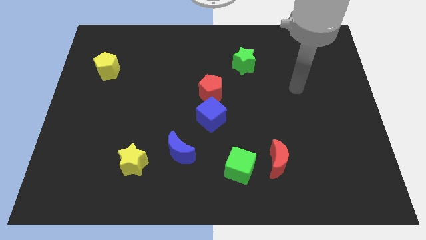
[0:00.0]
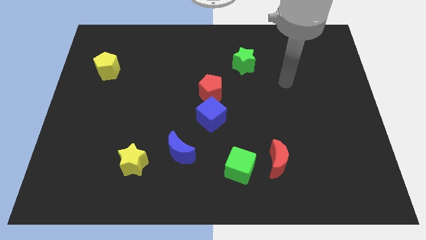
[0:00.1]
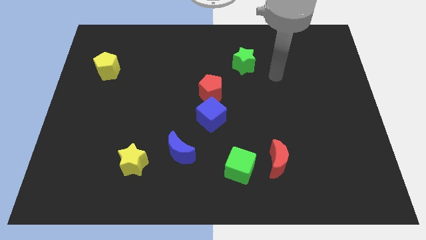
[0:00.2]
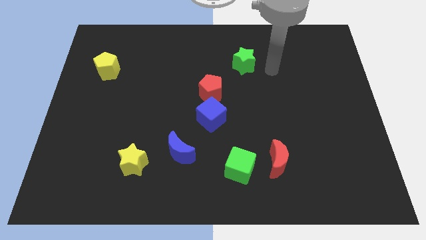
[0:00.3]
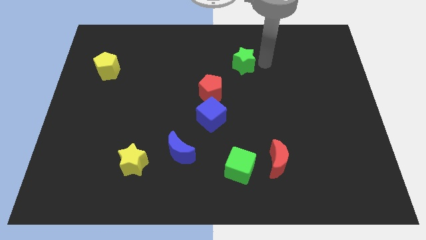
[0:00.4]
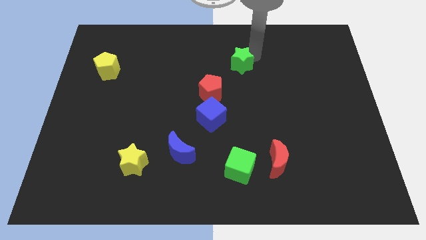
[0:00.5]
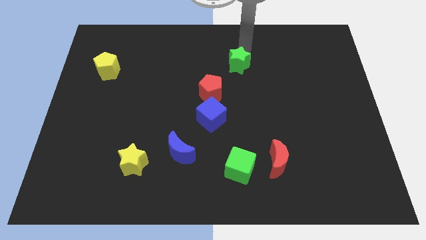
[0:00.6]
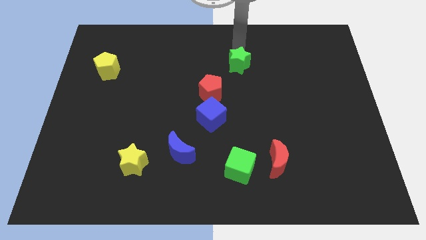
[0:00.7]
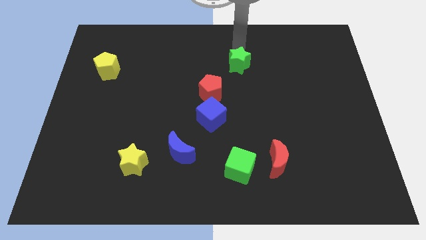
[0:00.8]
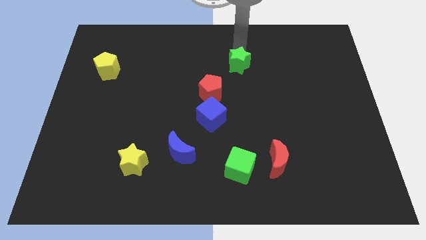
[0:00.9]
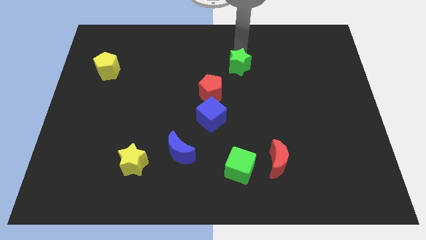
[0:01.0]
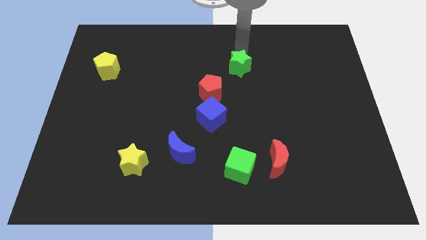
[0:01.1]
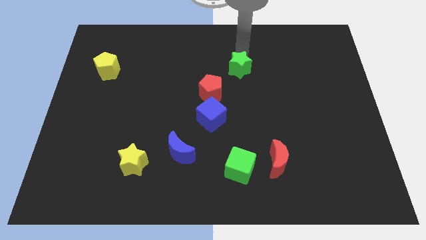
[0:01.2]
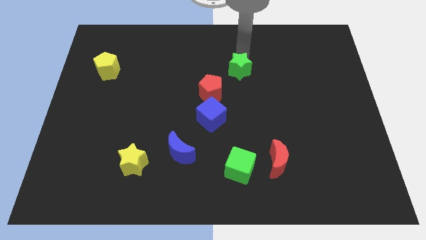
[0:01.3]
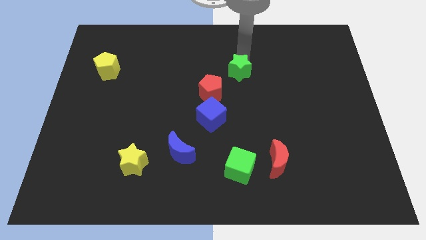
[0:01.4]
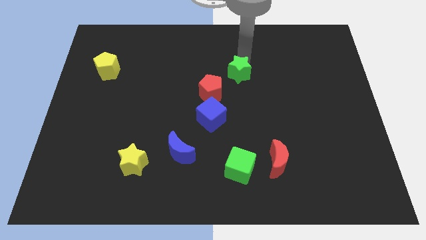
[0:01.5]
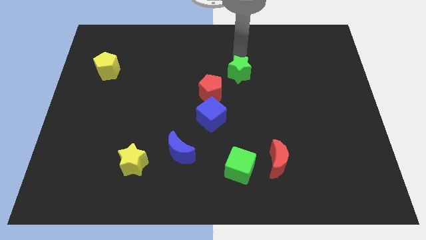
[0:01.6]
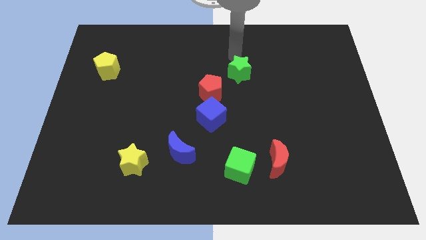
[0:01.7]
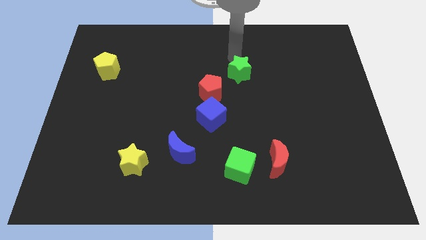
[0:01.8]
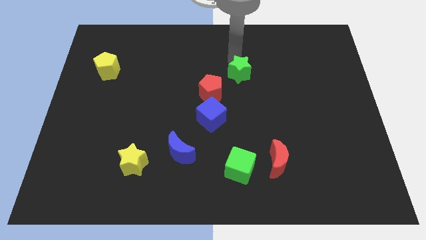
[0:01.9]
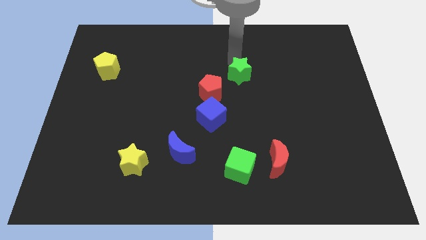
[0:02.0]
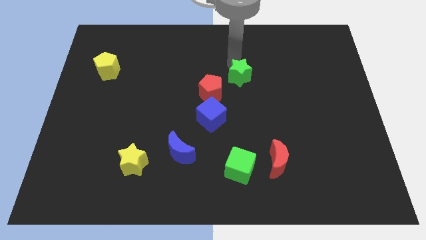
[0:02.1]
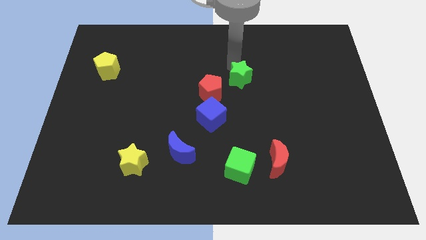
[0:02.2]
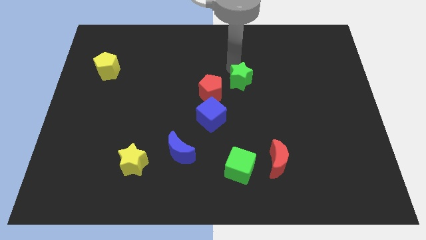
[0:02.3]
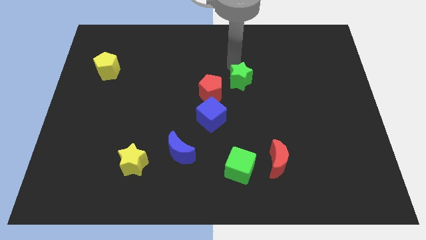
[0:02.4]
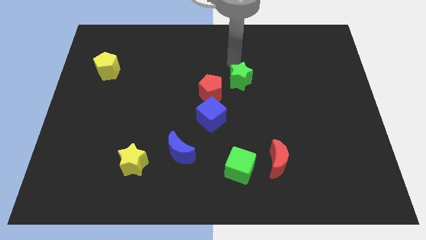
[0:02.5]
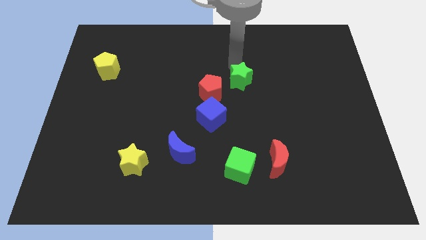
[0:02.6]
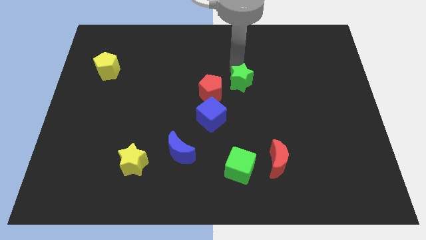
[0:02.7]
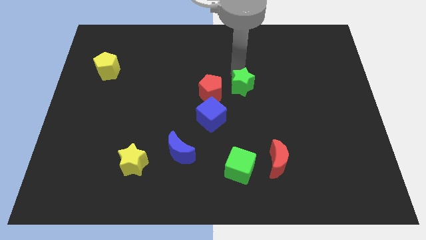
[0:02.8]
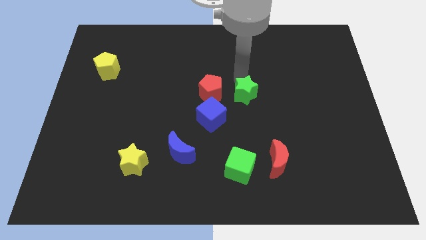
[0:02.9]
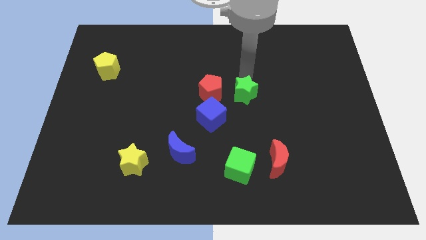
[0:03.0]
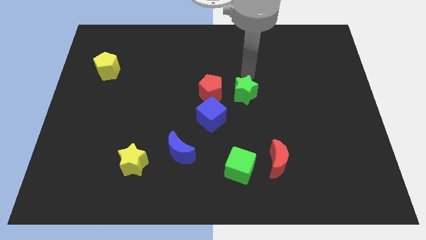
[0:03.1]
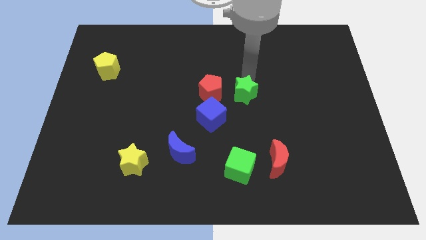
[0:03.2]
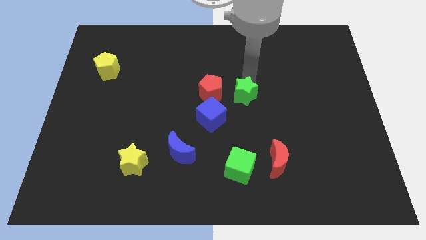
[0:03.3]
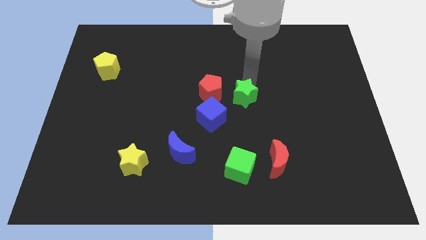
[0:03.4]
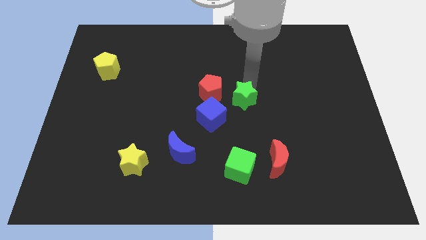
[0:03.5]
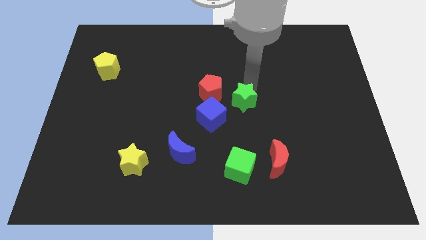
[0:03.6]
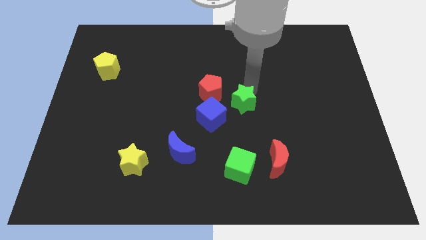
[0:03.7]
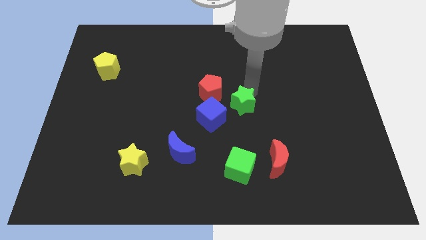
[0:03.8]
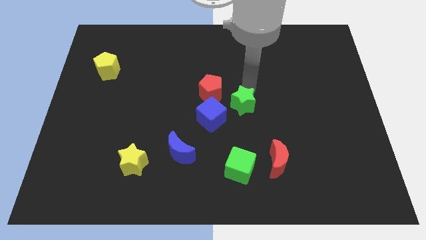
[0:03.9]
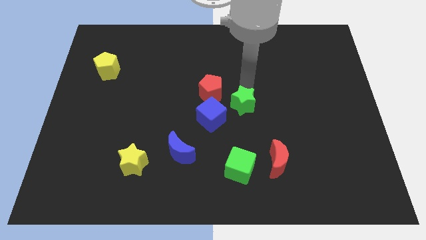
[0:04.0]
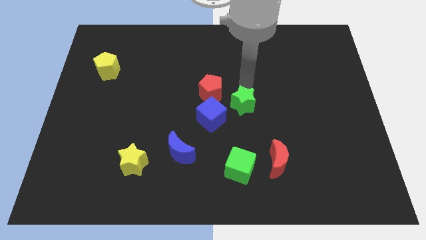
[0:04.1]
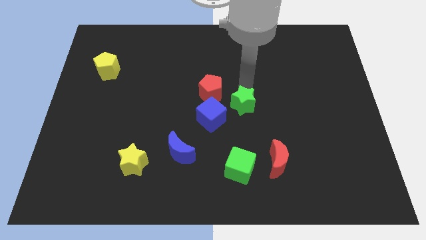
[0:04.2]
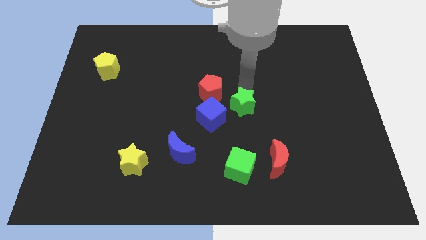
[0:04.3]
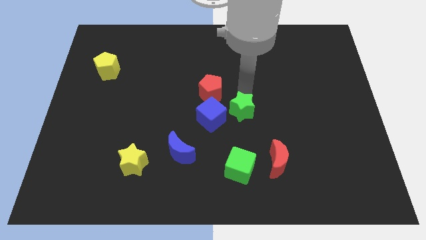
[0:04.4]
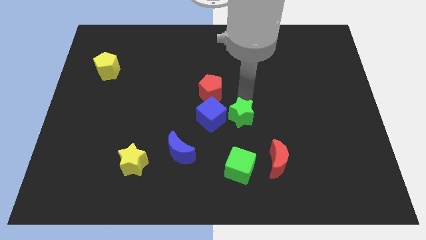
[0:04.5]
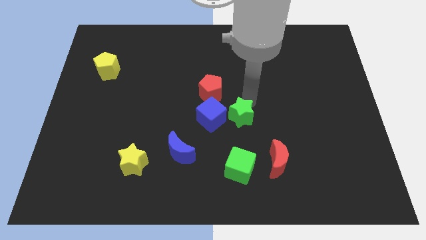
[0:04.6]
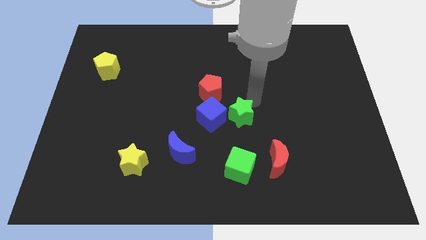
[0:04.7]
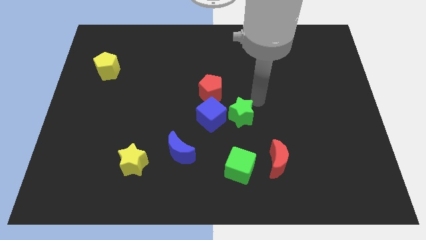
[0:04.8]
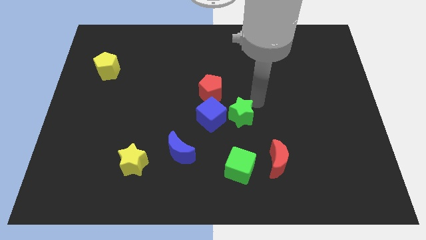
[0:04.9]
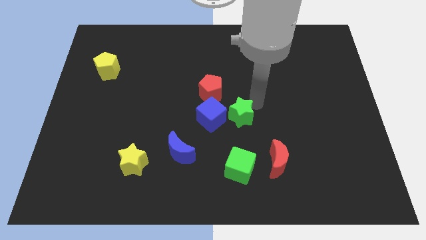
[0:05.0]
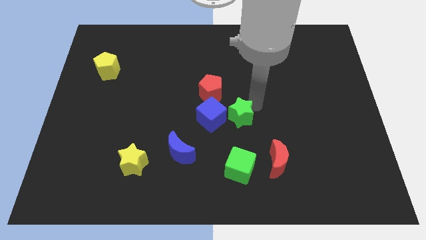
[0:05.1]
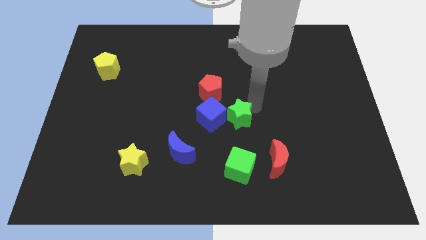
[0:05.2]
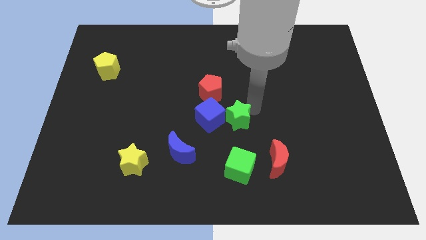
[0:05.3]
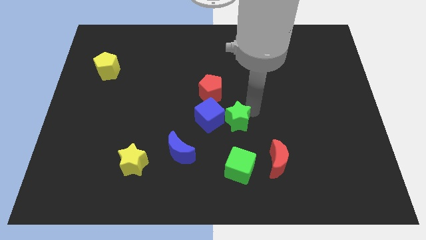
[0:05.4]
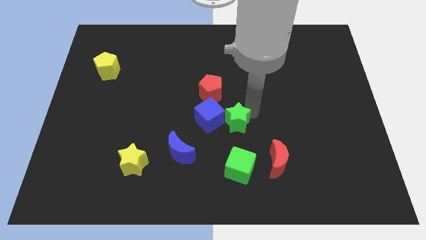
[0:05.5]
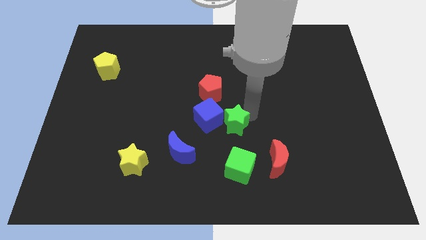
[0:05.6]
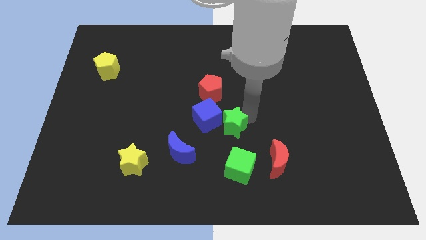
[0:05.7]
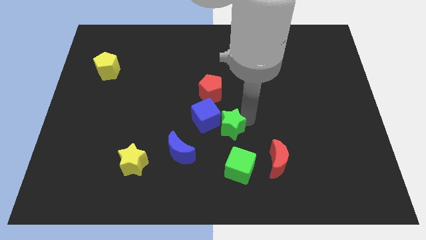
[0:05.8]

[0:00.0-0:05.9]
slide the green star to the bottom side of the red pentagon
